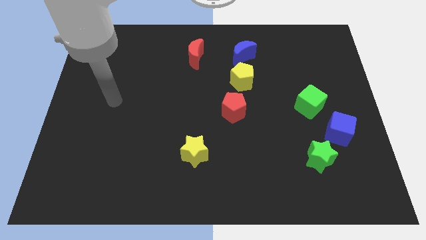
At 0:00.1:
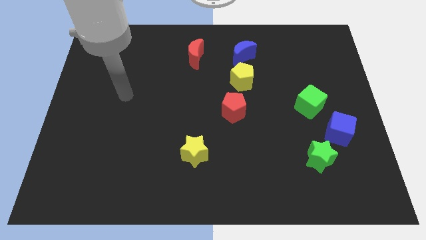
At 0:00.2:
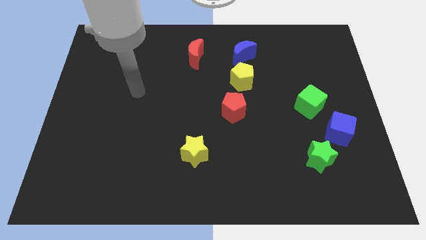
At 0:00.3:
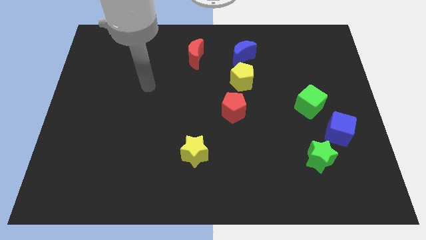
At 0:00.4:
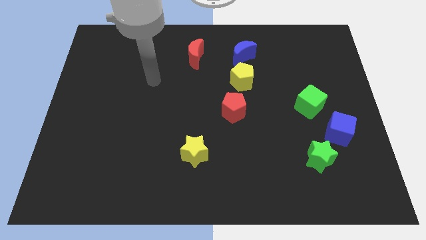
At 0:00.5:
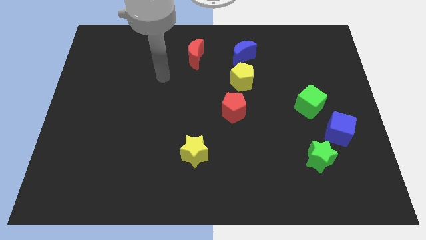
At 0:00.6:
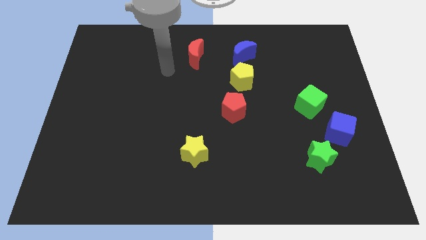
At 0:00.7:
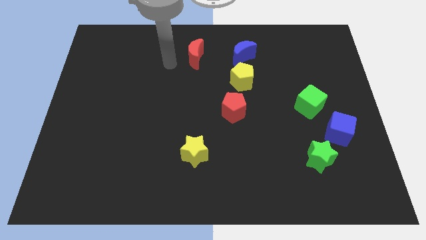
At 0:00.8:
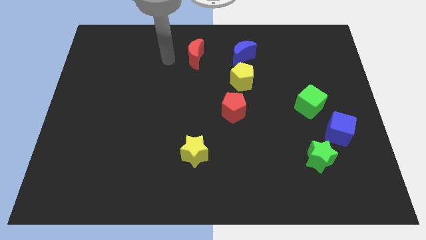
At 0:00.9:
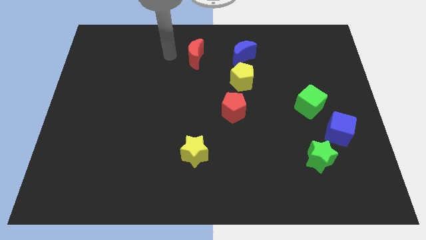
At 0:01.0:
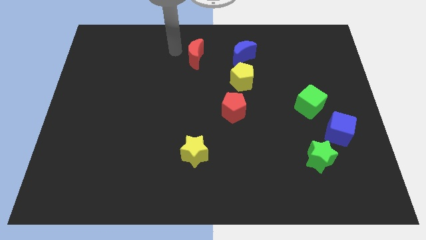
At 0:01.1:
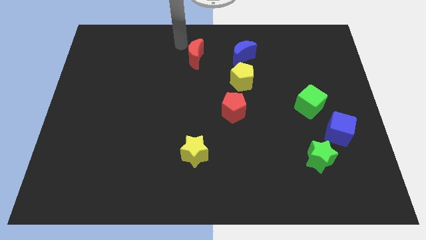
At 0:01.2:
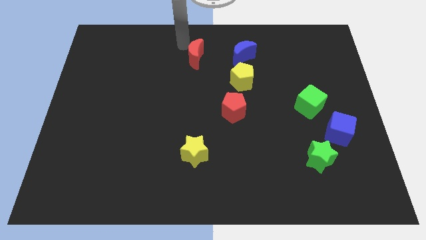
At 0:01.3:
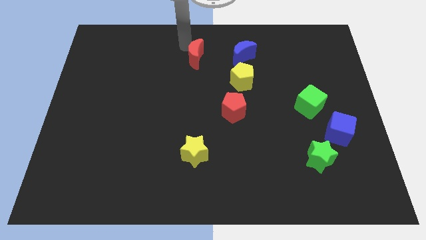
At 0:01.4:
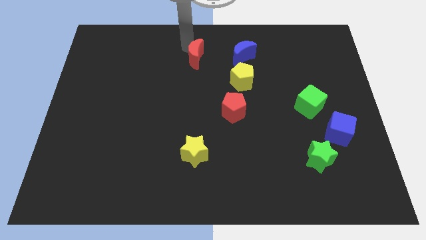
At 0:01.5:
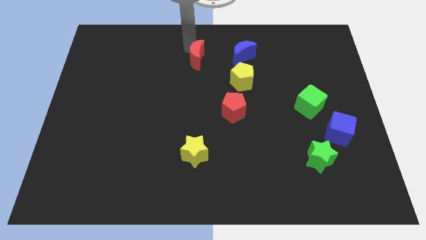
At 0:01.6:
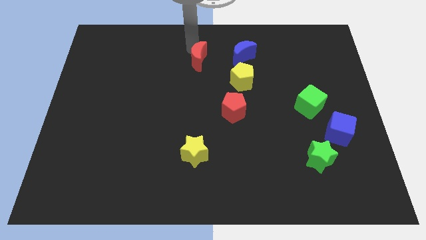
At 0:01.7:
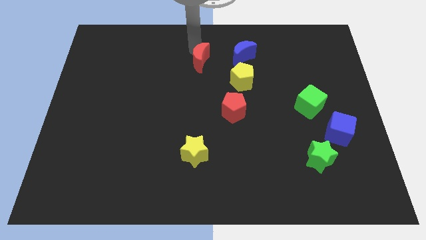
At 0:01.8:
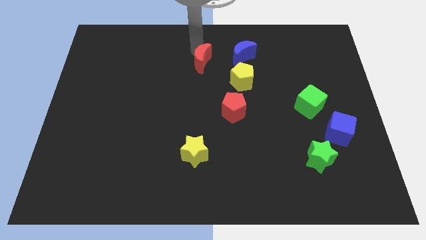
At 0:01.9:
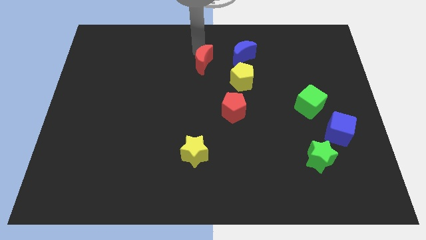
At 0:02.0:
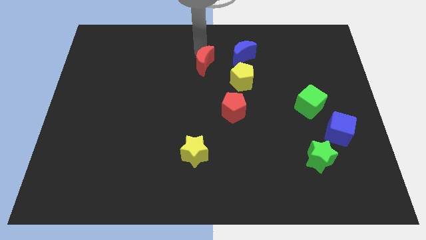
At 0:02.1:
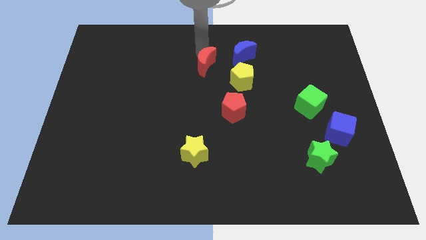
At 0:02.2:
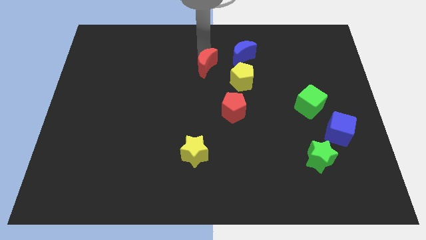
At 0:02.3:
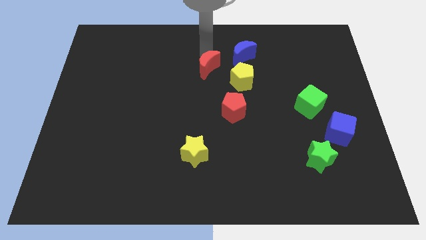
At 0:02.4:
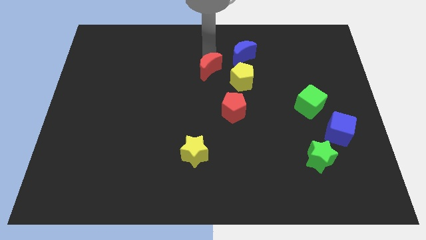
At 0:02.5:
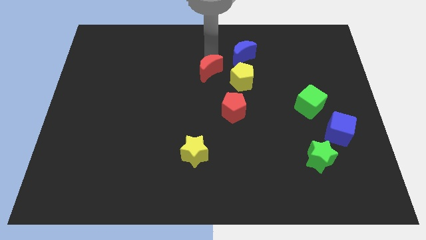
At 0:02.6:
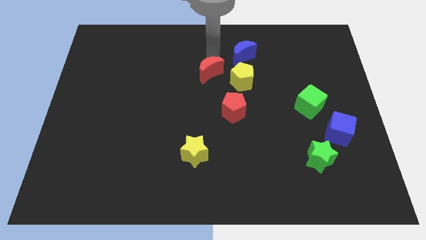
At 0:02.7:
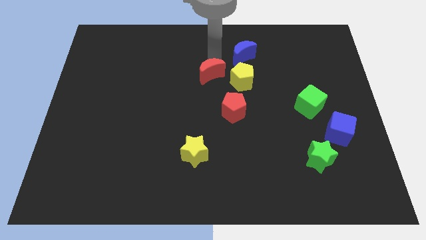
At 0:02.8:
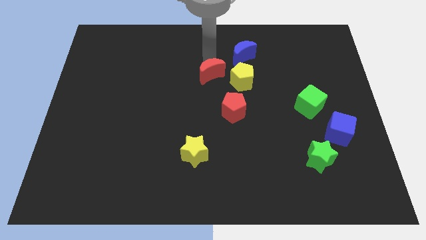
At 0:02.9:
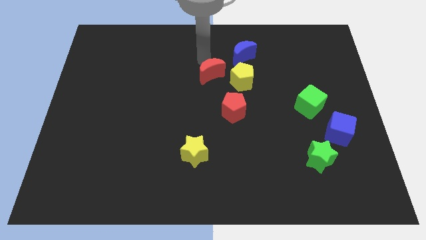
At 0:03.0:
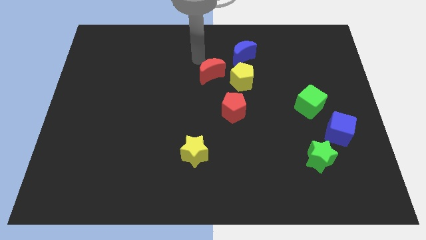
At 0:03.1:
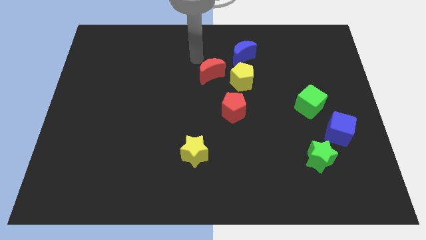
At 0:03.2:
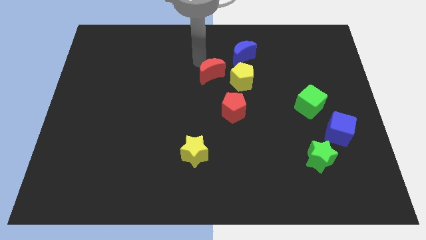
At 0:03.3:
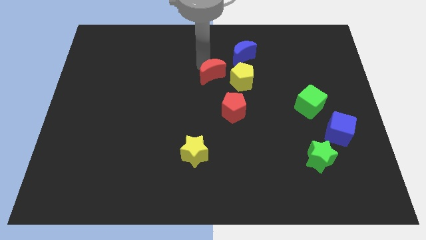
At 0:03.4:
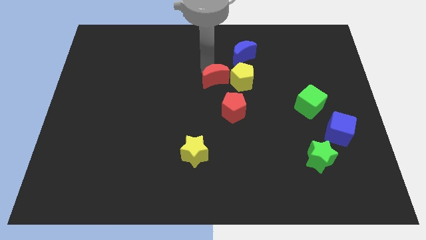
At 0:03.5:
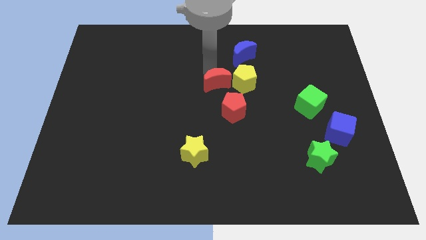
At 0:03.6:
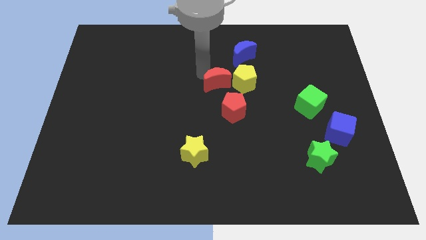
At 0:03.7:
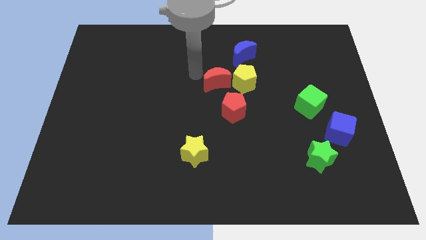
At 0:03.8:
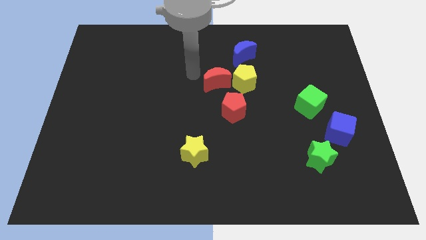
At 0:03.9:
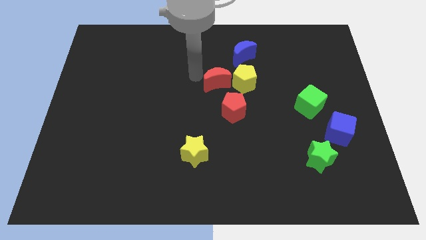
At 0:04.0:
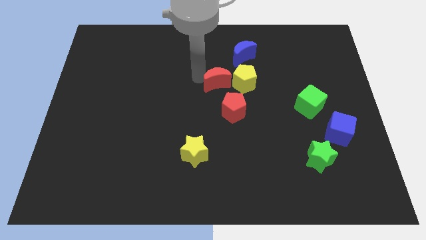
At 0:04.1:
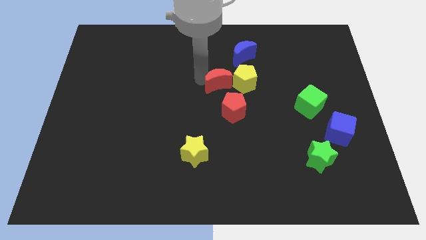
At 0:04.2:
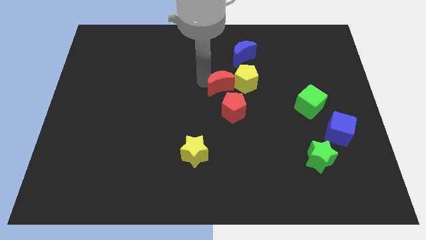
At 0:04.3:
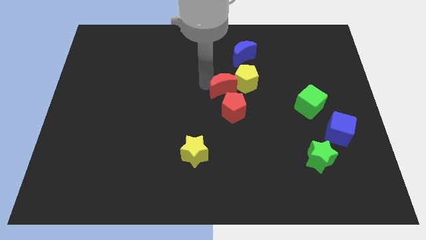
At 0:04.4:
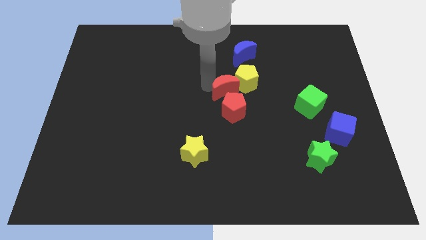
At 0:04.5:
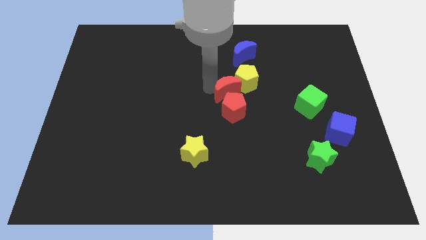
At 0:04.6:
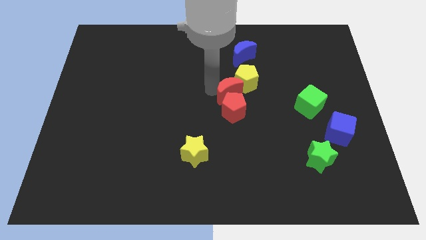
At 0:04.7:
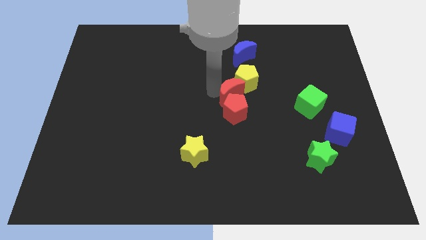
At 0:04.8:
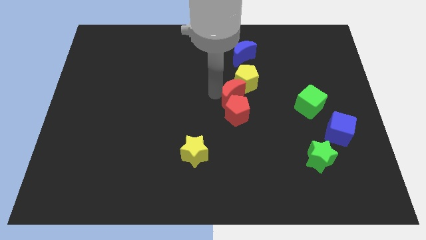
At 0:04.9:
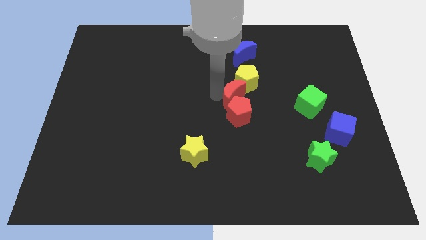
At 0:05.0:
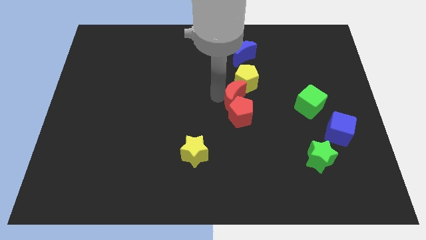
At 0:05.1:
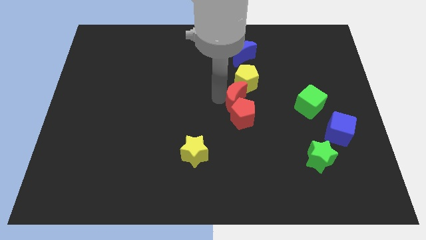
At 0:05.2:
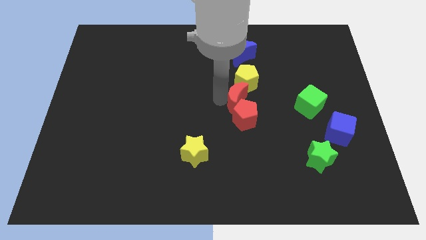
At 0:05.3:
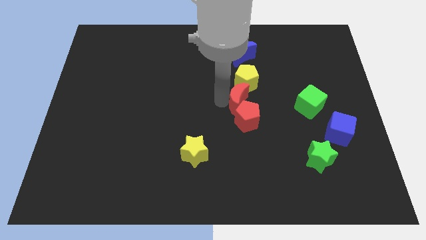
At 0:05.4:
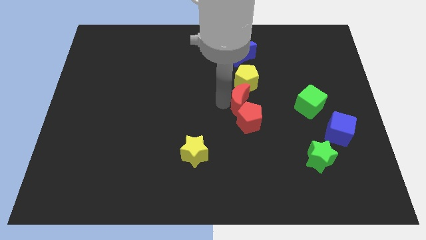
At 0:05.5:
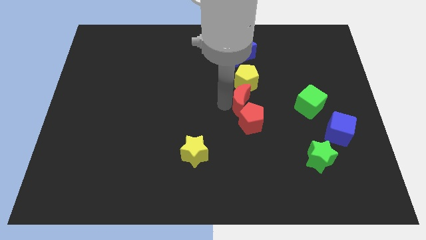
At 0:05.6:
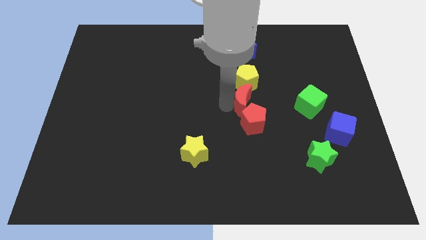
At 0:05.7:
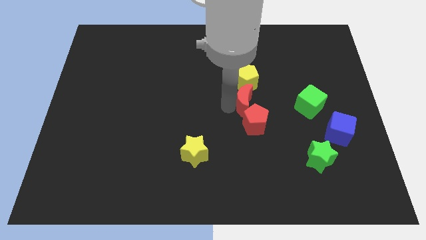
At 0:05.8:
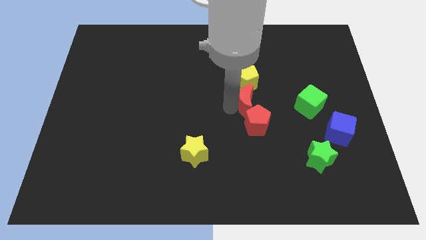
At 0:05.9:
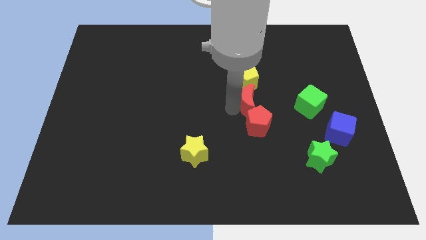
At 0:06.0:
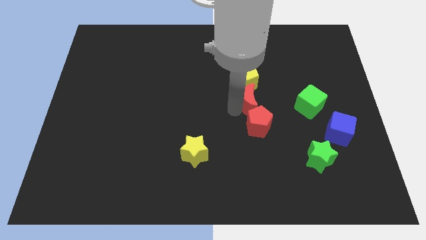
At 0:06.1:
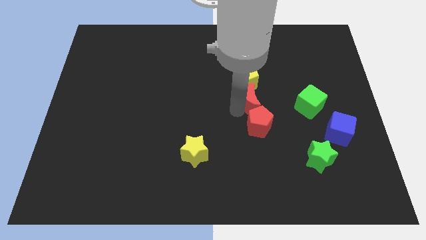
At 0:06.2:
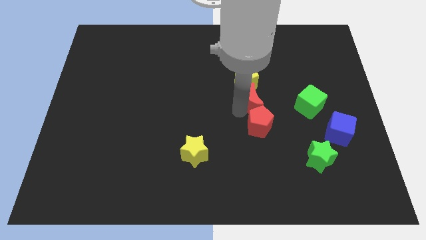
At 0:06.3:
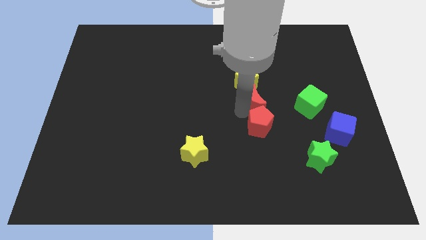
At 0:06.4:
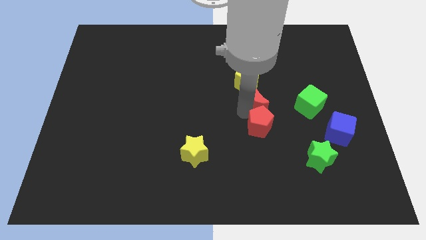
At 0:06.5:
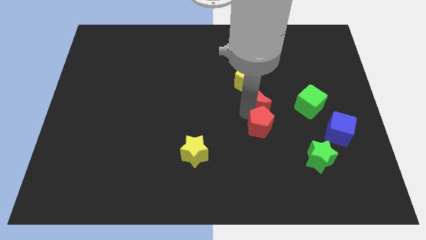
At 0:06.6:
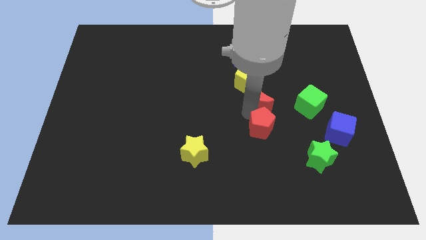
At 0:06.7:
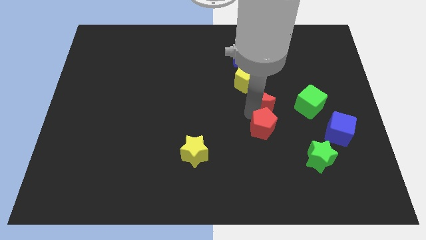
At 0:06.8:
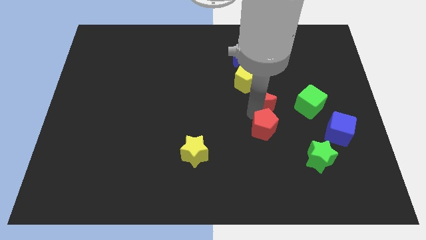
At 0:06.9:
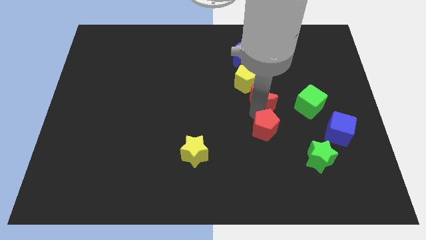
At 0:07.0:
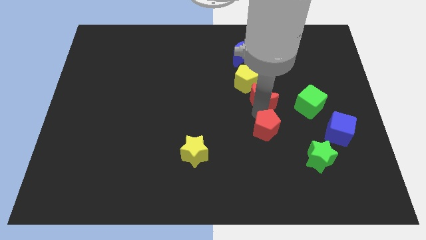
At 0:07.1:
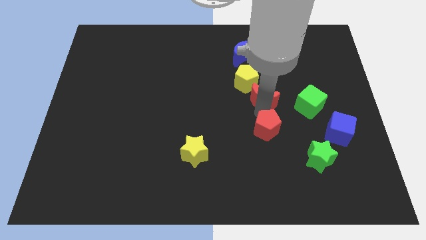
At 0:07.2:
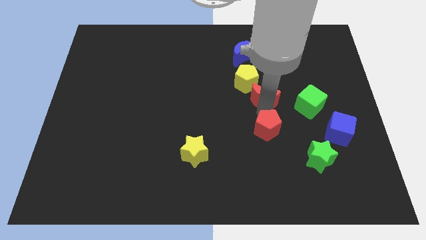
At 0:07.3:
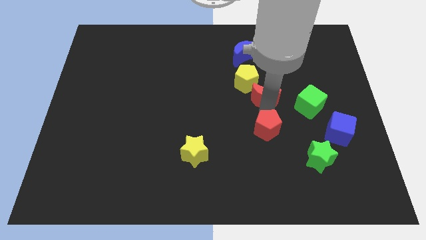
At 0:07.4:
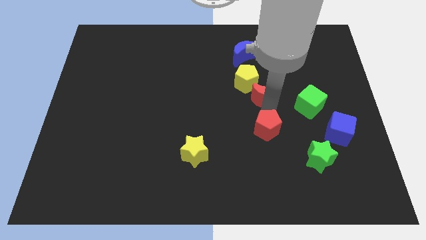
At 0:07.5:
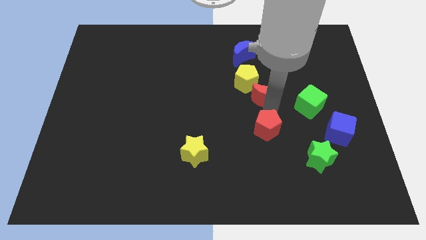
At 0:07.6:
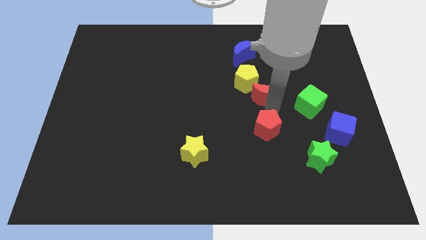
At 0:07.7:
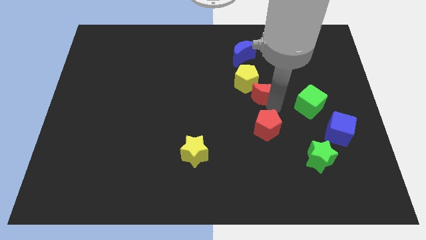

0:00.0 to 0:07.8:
push the red moon just right of the yellow pentagon
